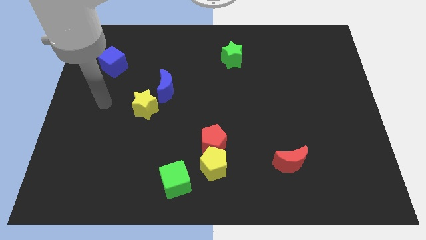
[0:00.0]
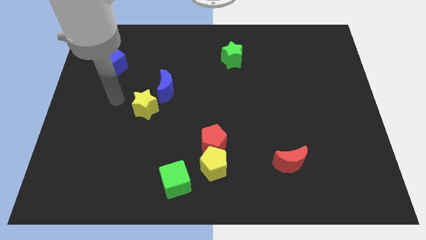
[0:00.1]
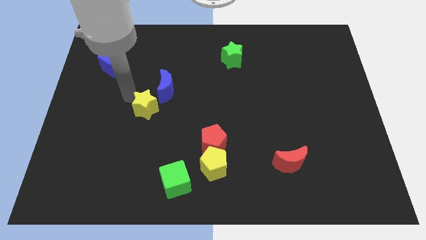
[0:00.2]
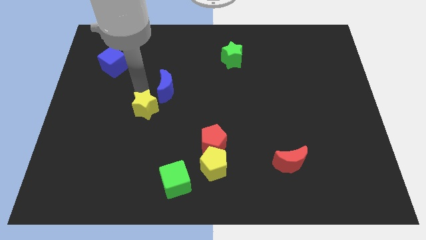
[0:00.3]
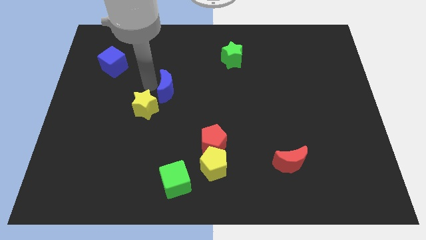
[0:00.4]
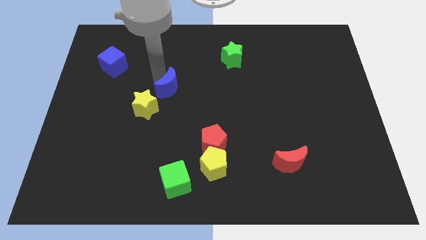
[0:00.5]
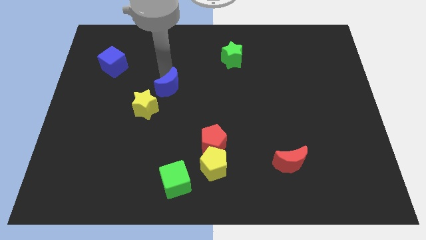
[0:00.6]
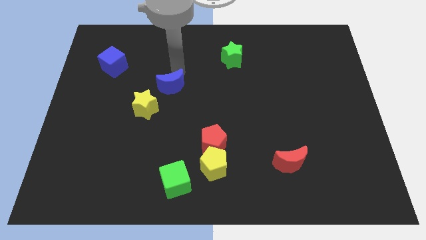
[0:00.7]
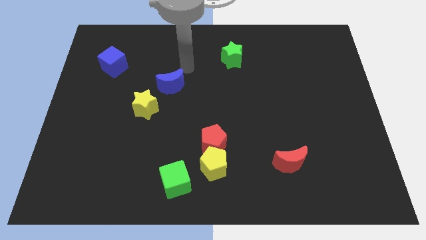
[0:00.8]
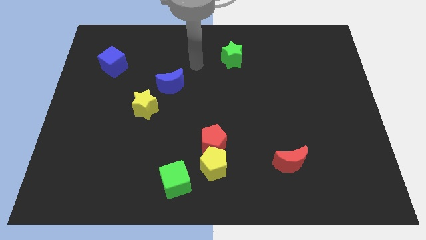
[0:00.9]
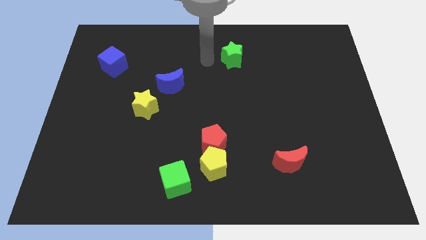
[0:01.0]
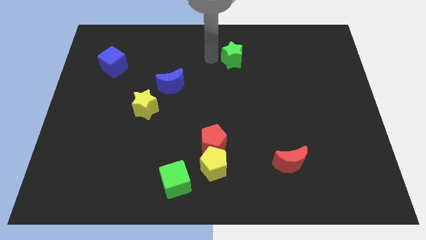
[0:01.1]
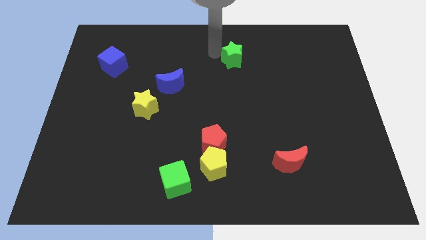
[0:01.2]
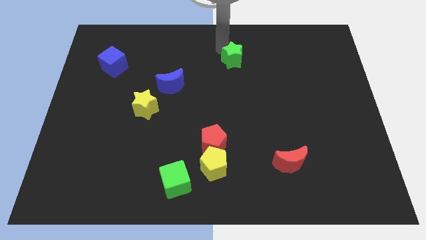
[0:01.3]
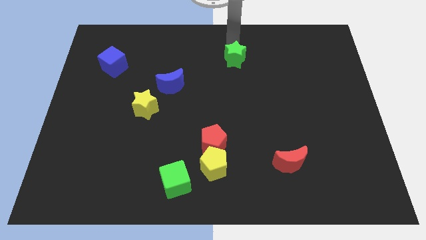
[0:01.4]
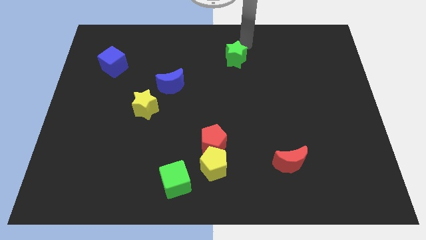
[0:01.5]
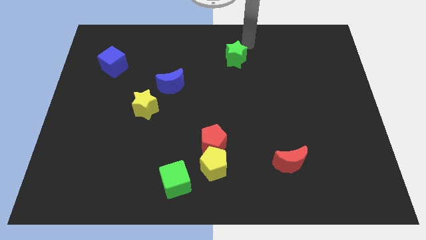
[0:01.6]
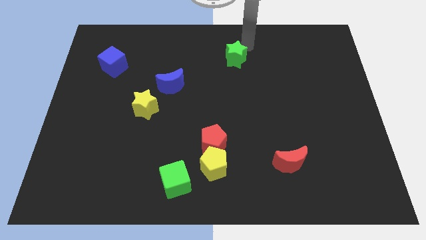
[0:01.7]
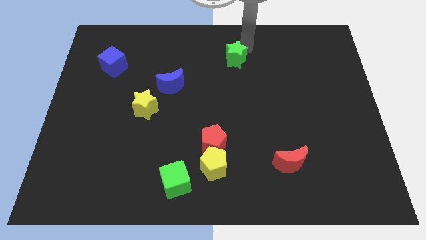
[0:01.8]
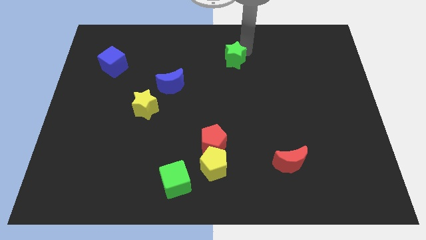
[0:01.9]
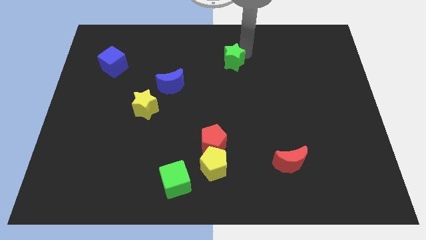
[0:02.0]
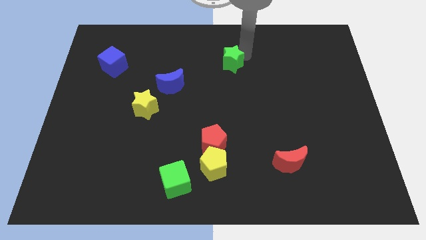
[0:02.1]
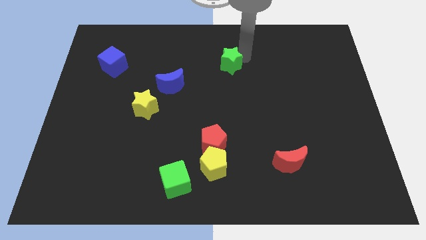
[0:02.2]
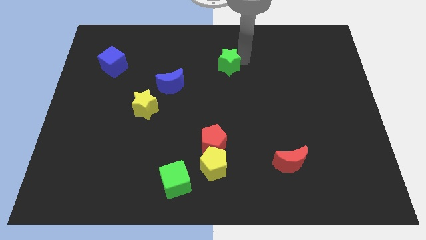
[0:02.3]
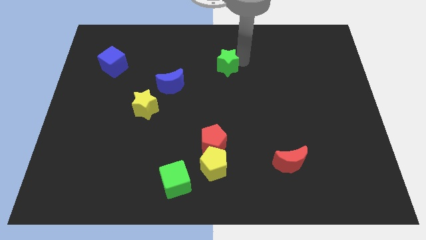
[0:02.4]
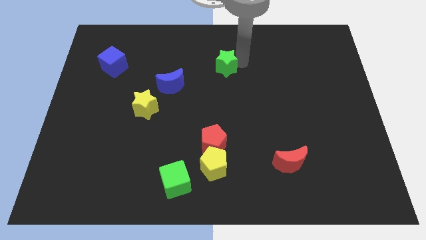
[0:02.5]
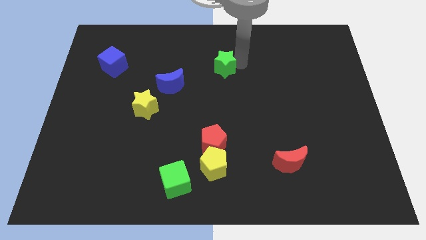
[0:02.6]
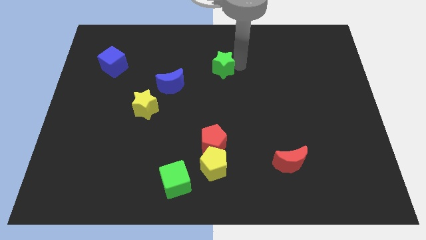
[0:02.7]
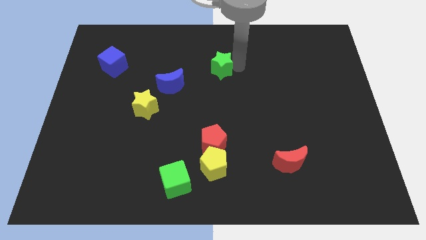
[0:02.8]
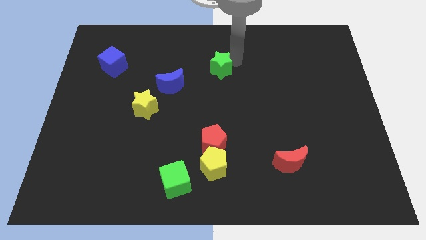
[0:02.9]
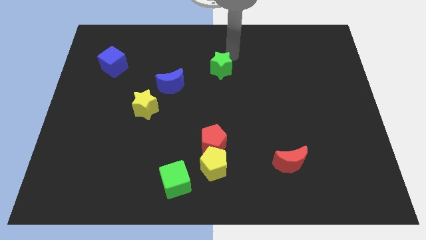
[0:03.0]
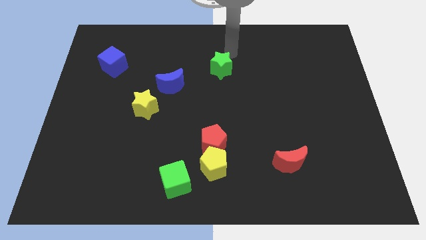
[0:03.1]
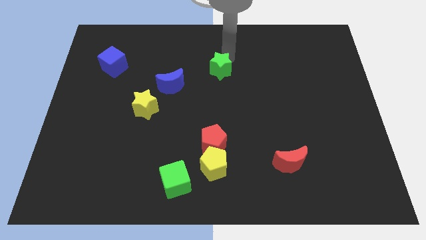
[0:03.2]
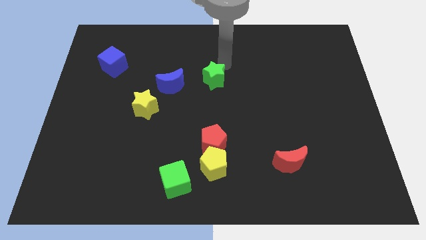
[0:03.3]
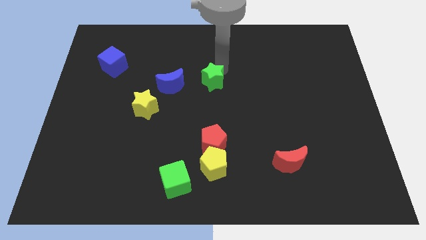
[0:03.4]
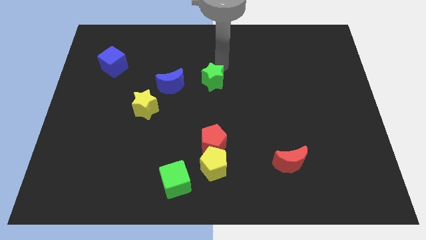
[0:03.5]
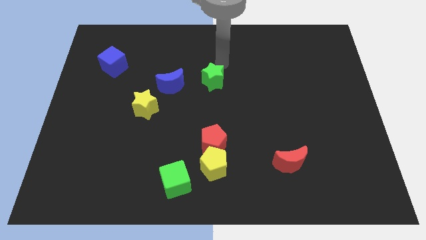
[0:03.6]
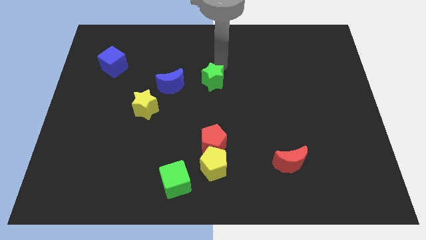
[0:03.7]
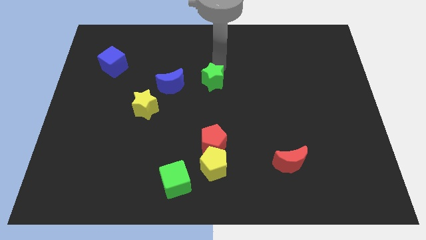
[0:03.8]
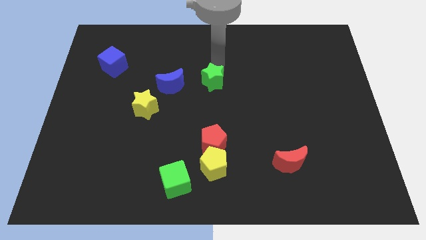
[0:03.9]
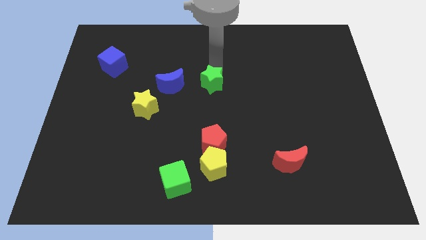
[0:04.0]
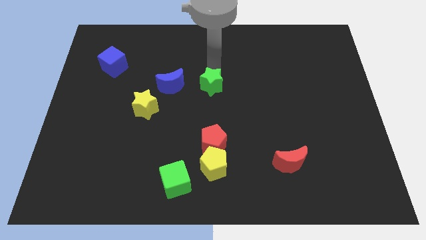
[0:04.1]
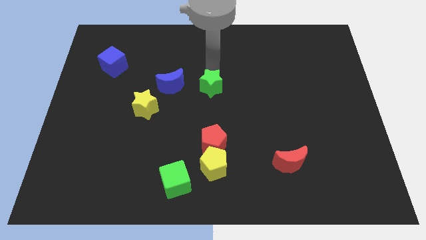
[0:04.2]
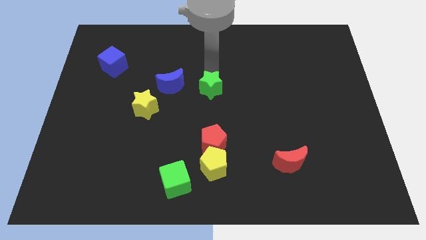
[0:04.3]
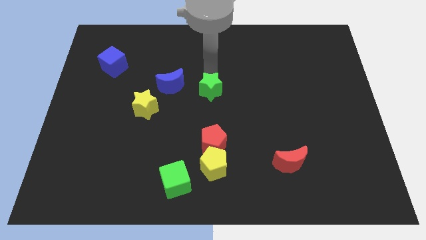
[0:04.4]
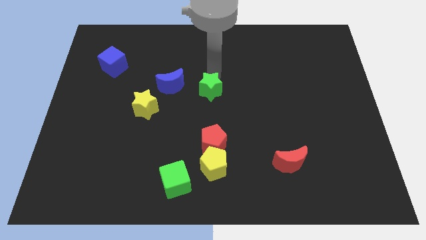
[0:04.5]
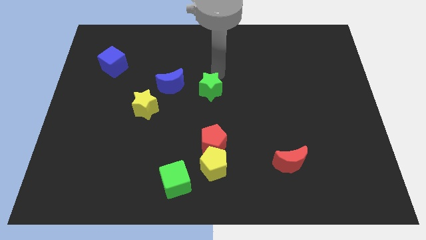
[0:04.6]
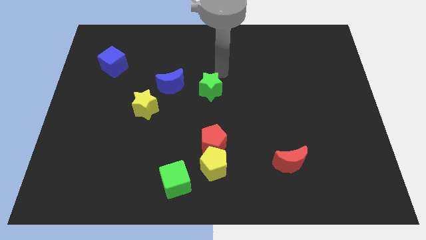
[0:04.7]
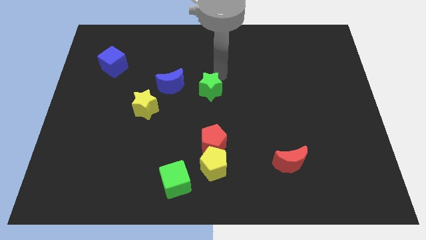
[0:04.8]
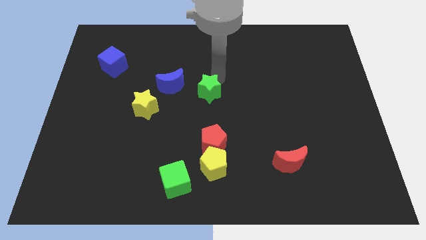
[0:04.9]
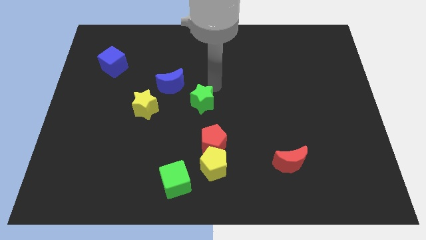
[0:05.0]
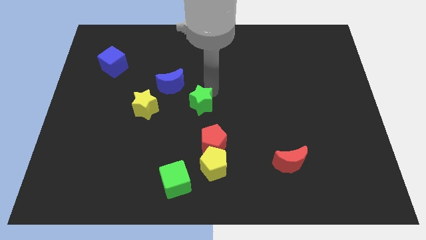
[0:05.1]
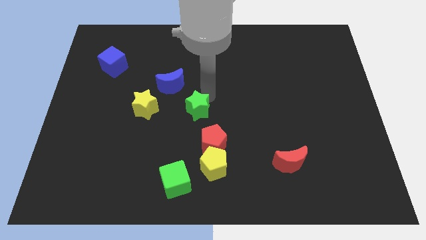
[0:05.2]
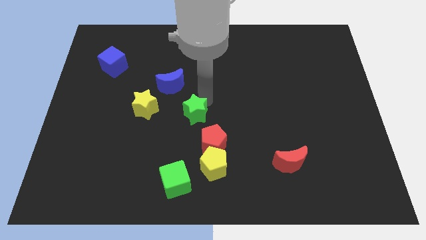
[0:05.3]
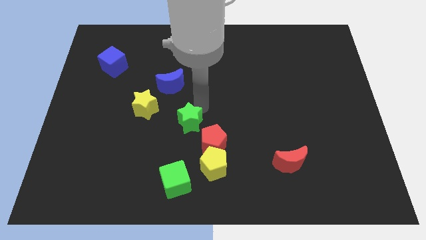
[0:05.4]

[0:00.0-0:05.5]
move the green star to the top of the green cube

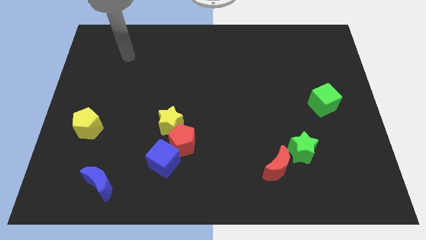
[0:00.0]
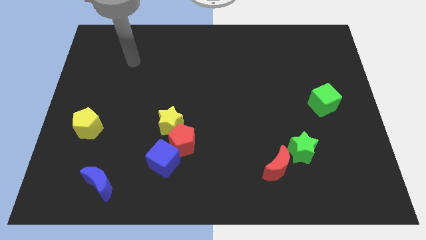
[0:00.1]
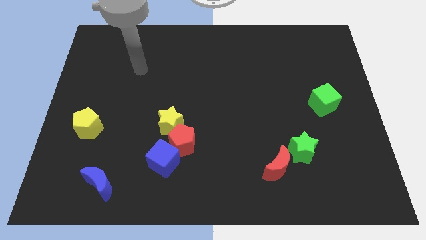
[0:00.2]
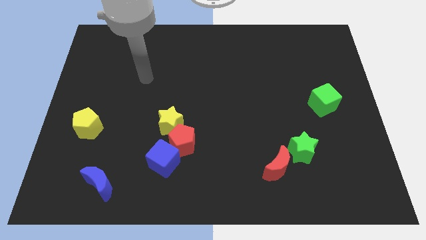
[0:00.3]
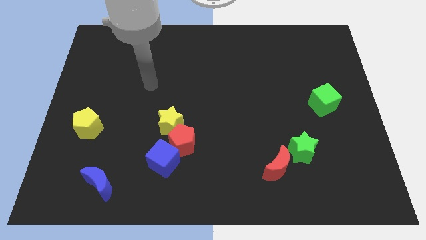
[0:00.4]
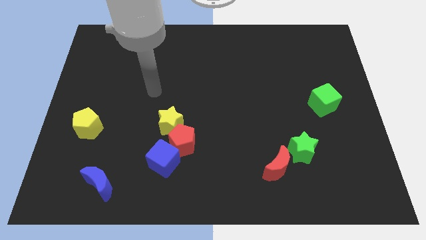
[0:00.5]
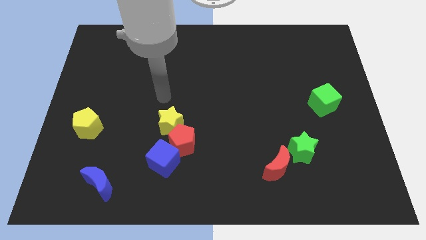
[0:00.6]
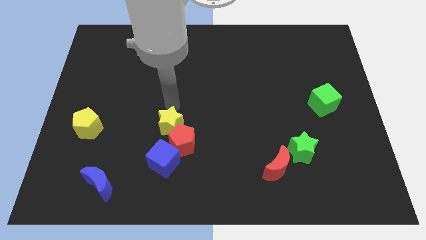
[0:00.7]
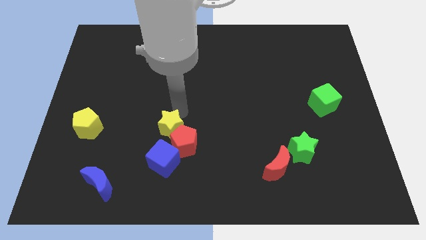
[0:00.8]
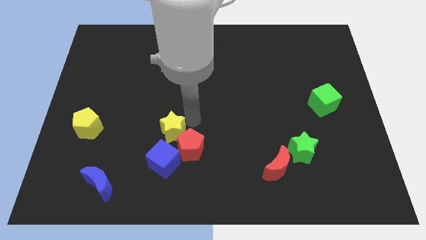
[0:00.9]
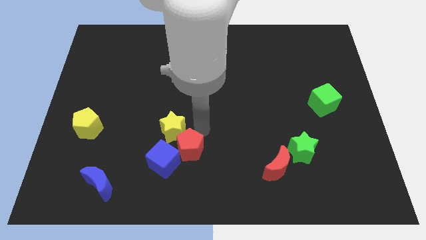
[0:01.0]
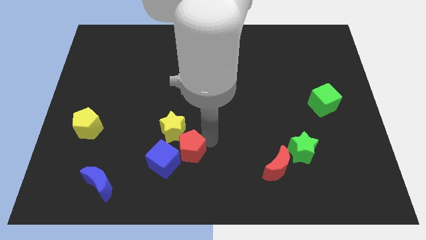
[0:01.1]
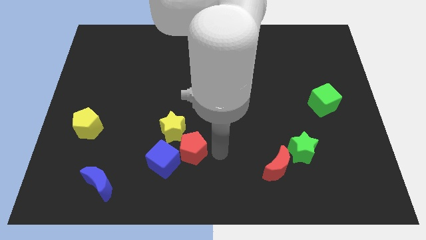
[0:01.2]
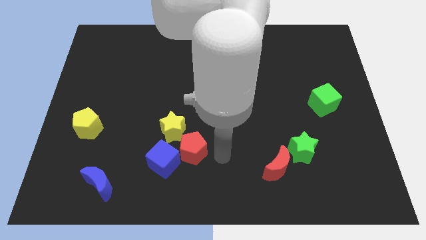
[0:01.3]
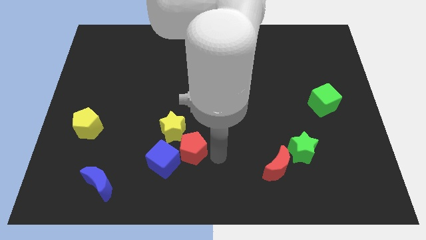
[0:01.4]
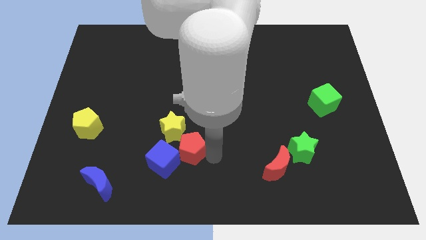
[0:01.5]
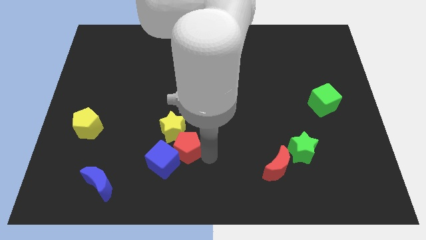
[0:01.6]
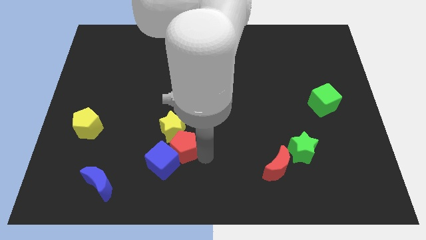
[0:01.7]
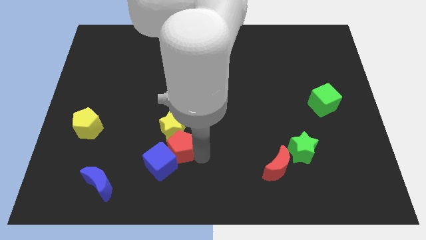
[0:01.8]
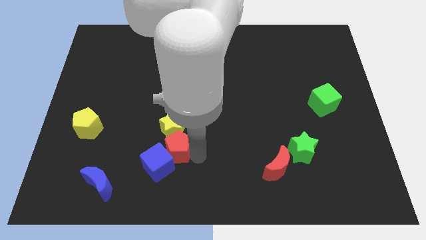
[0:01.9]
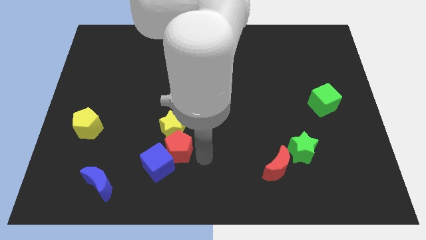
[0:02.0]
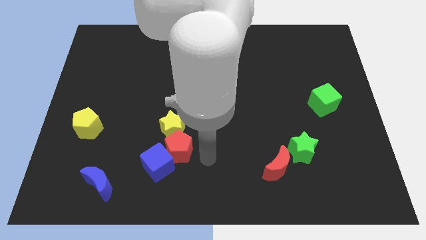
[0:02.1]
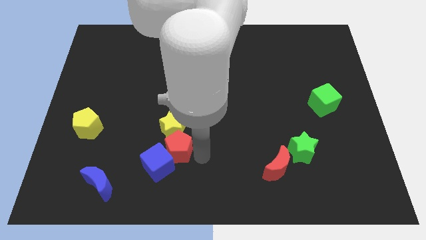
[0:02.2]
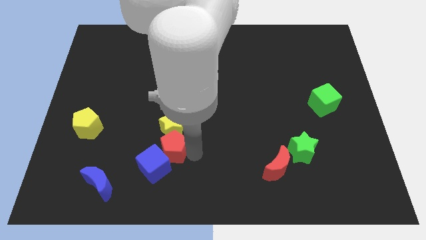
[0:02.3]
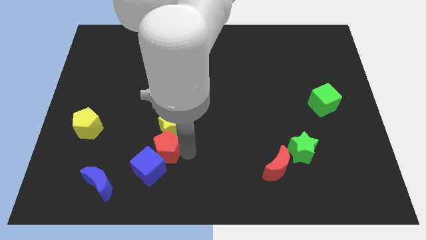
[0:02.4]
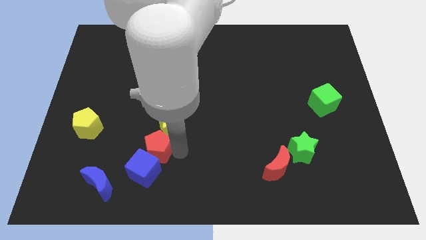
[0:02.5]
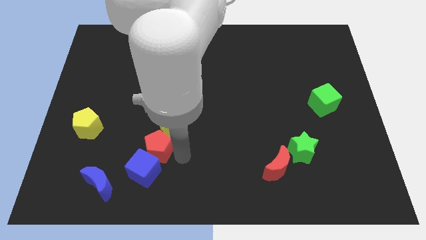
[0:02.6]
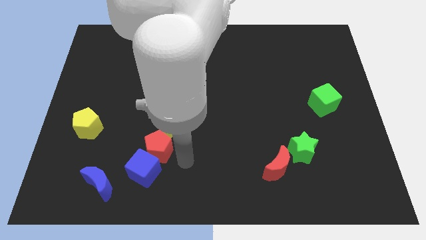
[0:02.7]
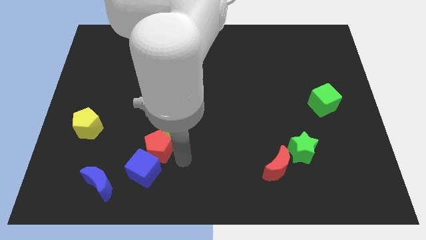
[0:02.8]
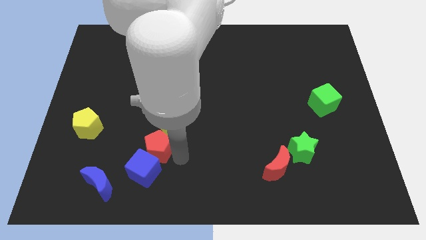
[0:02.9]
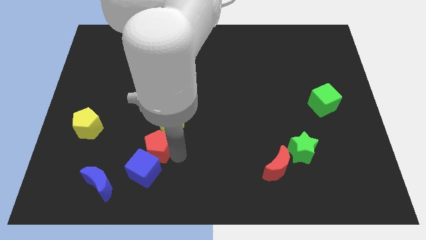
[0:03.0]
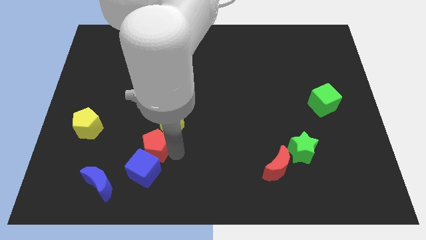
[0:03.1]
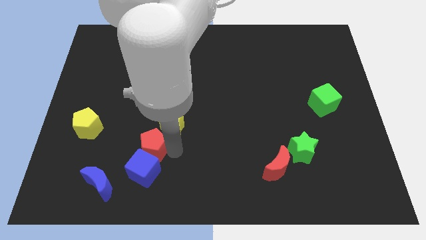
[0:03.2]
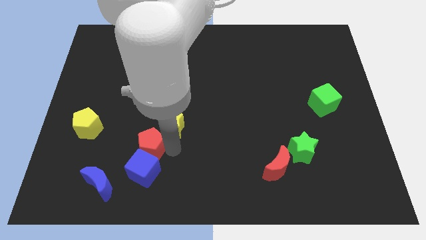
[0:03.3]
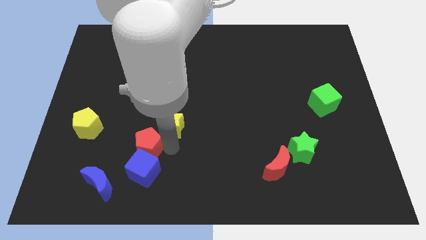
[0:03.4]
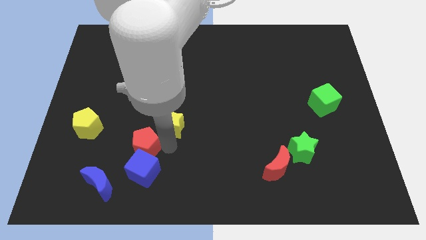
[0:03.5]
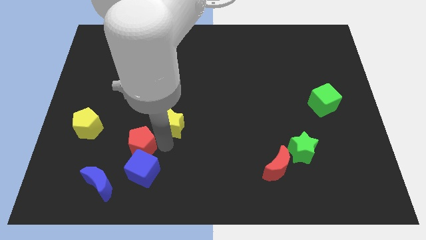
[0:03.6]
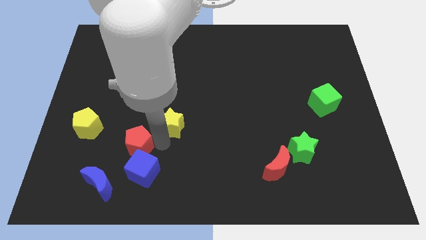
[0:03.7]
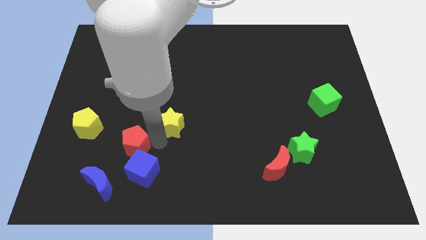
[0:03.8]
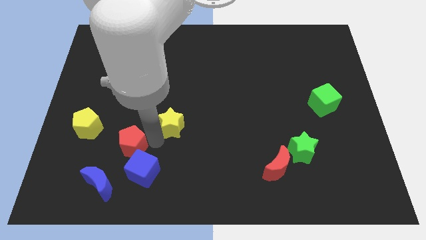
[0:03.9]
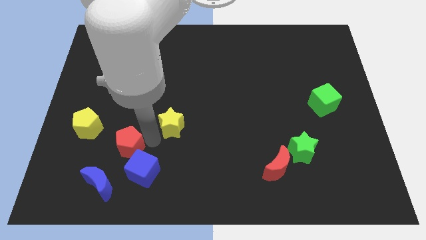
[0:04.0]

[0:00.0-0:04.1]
push the red pentagon above the blue moon
